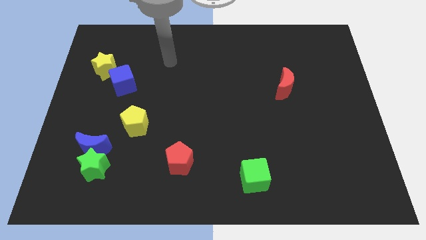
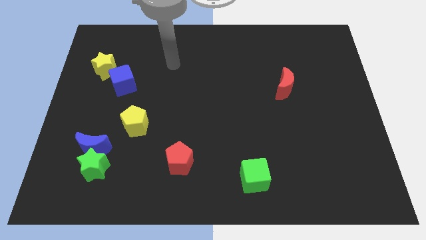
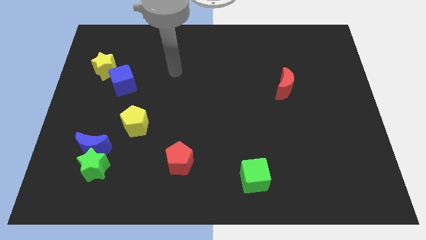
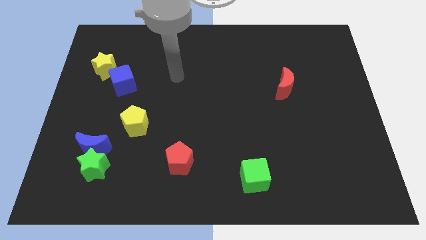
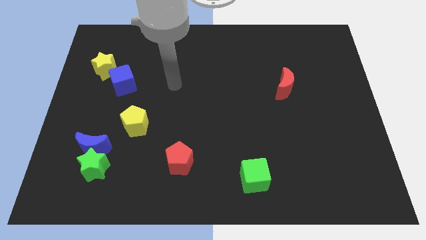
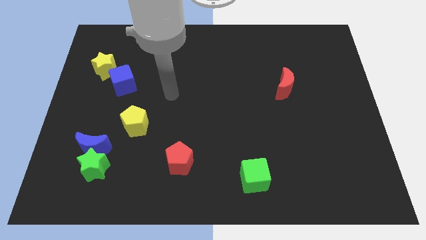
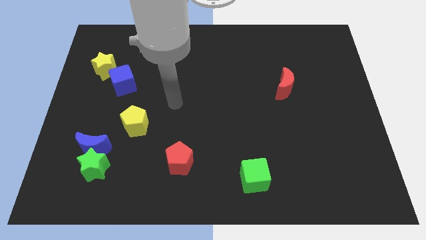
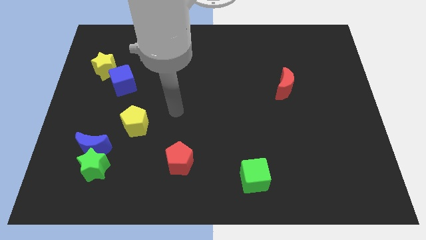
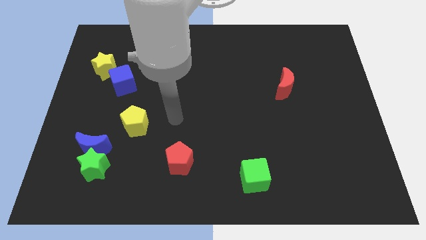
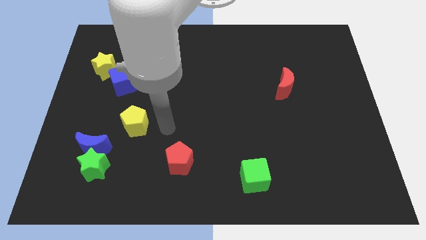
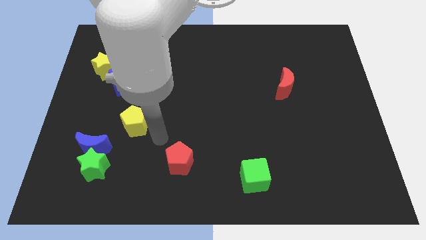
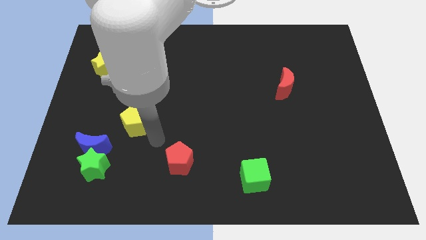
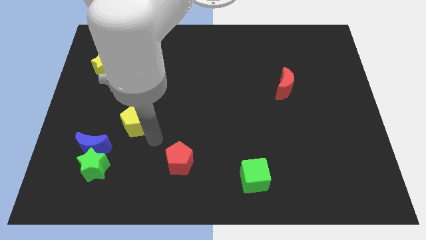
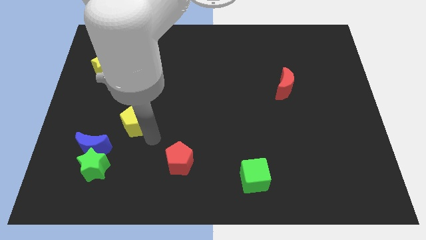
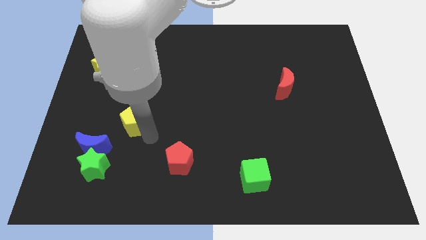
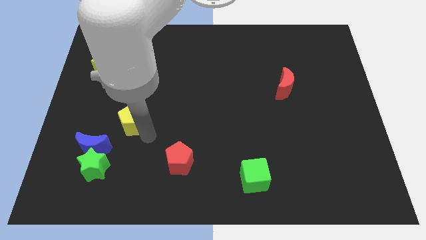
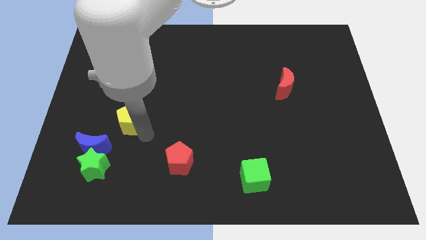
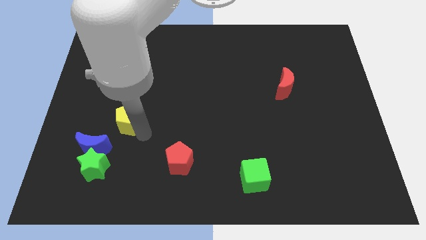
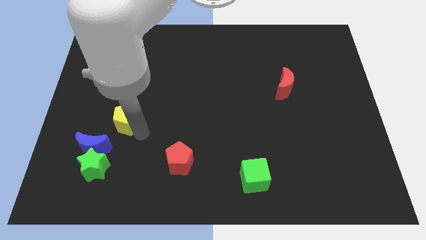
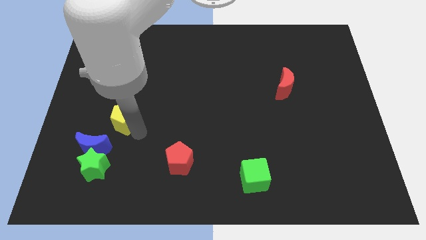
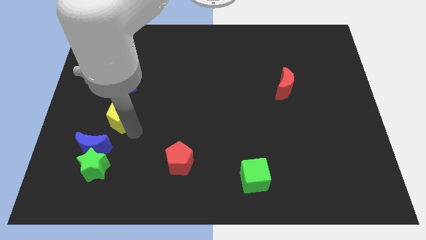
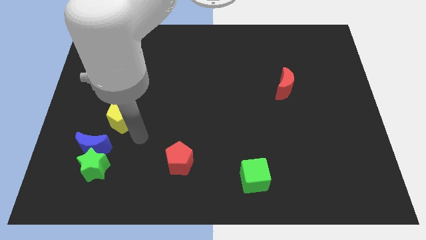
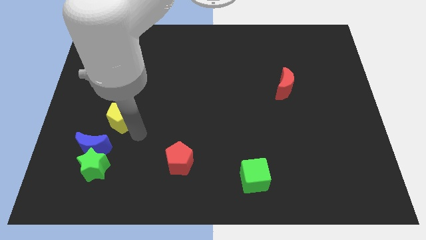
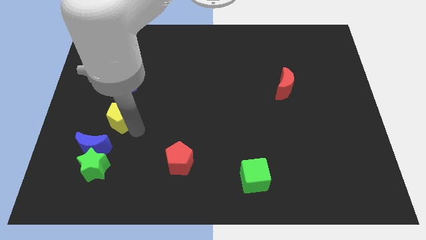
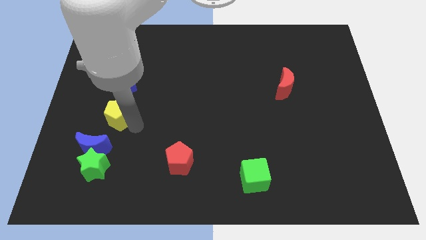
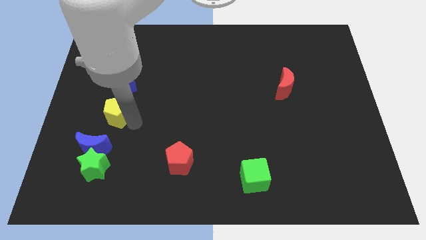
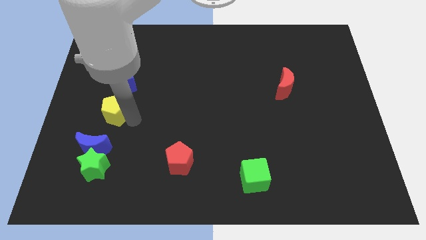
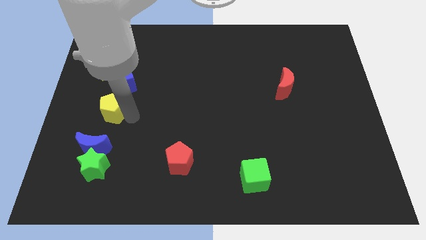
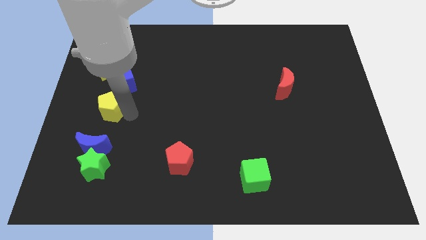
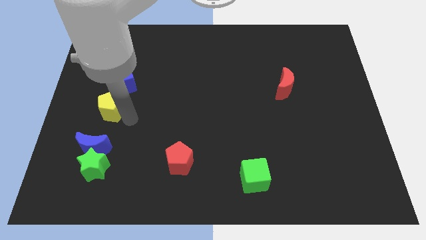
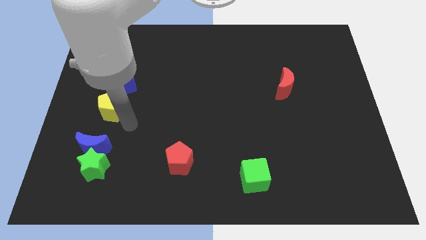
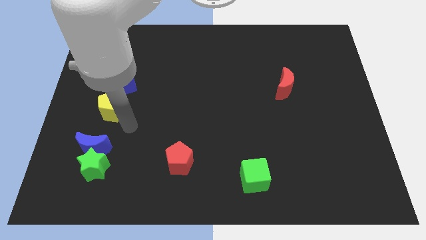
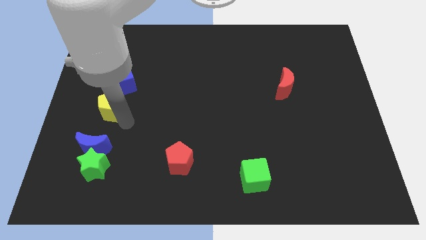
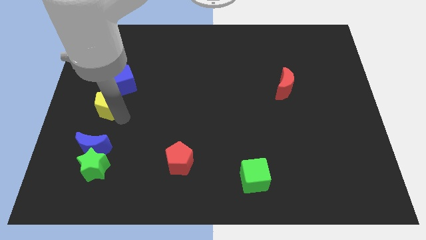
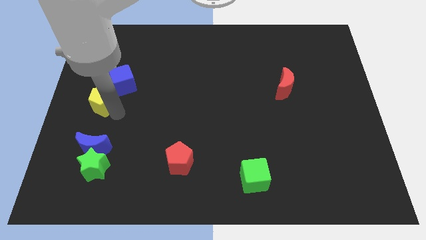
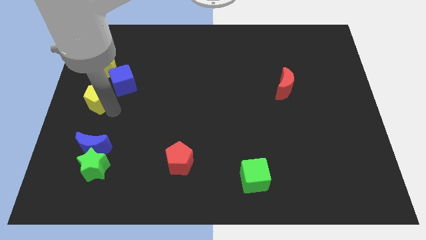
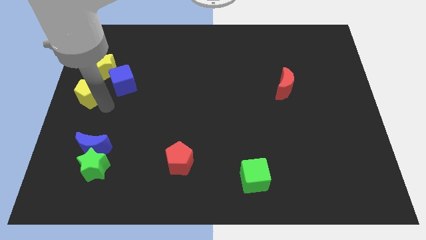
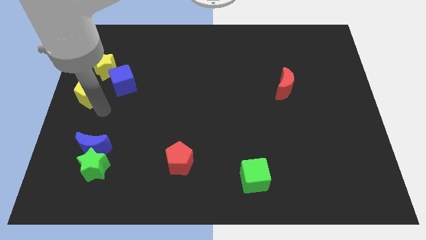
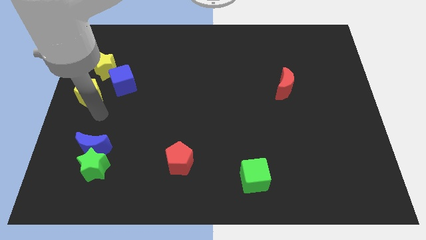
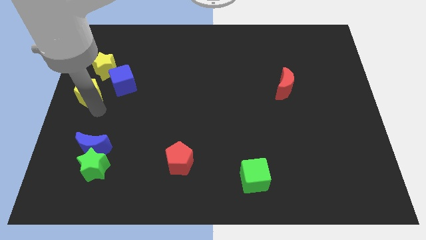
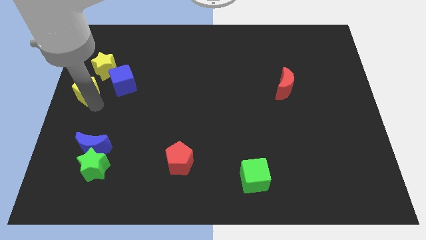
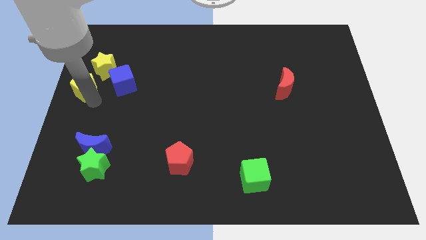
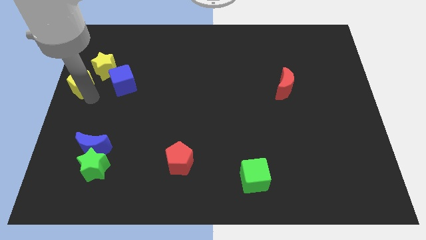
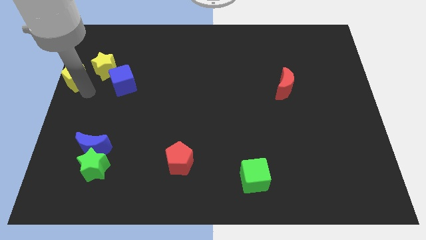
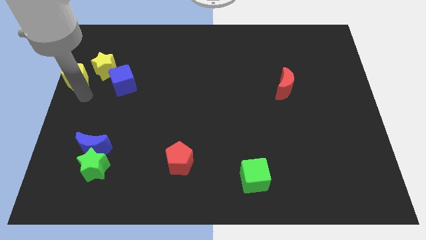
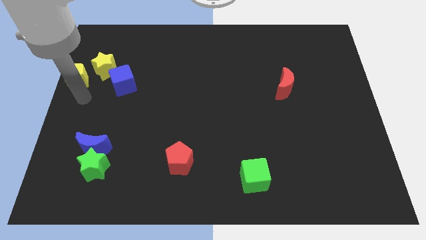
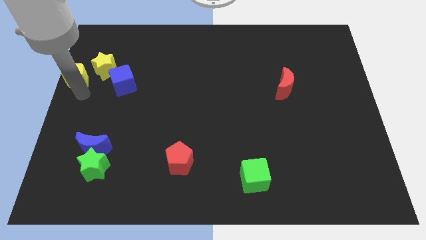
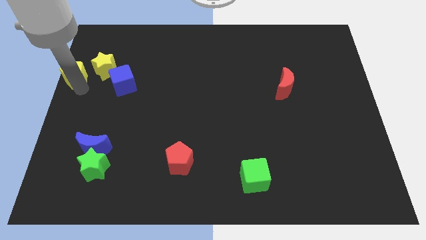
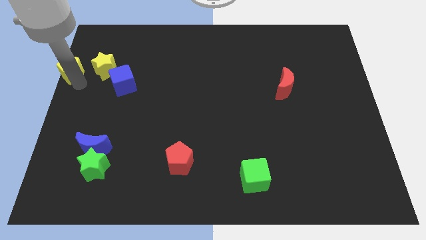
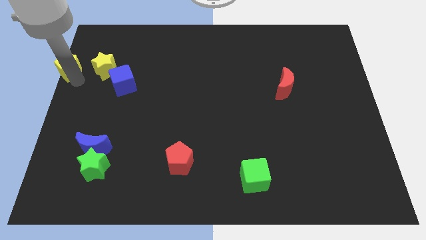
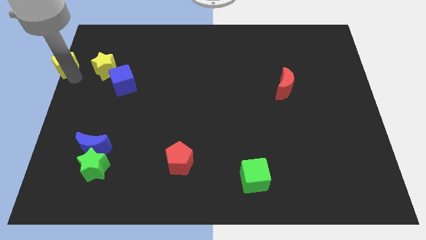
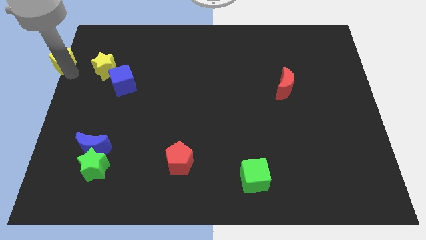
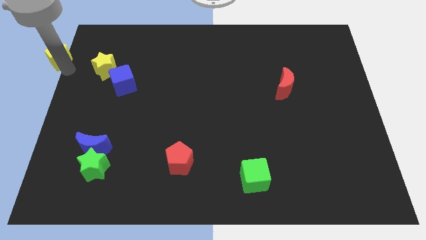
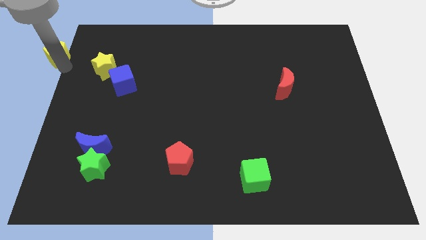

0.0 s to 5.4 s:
push the yellow pentagon to the upper left corner
